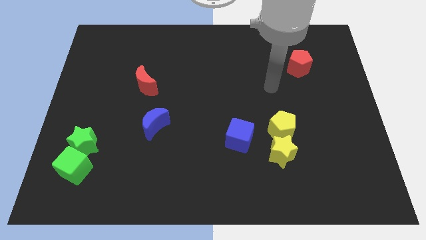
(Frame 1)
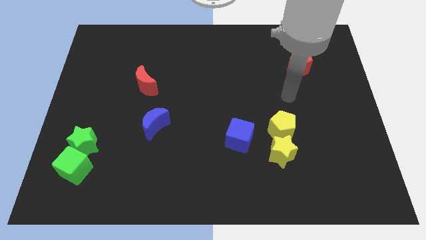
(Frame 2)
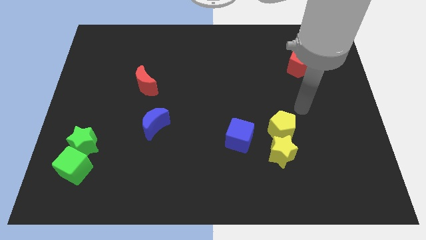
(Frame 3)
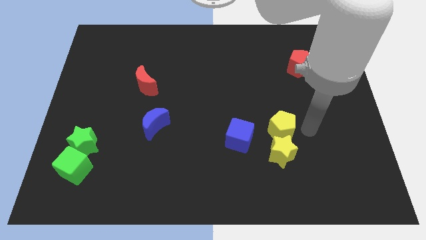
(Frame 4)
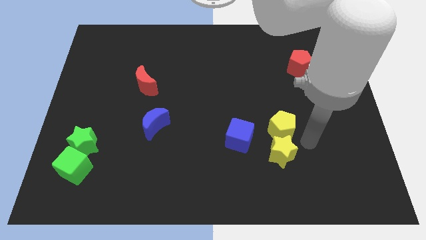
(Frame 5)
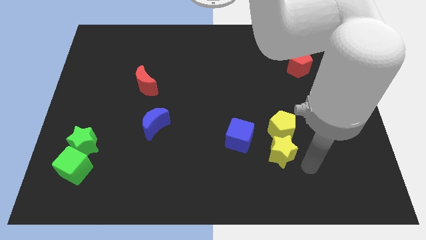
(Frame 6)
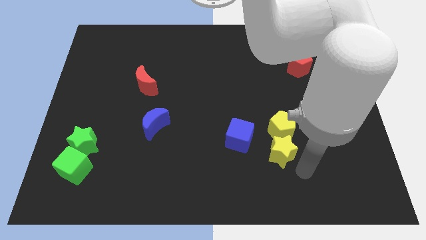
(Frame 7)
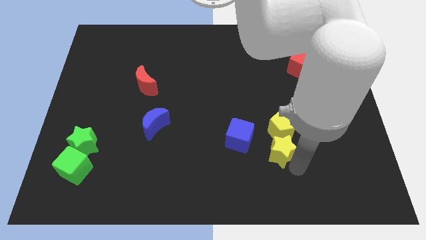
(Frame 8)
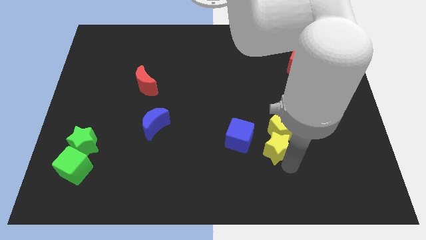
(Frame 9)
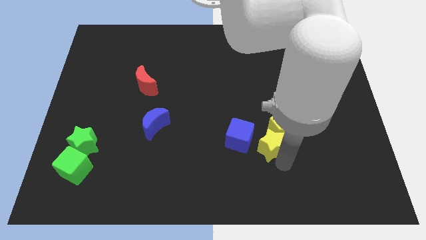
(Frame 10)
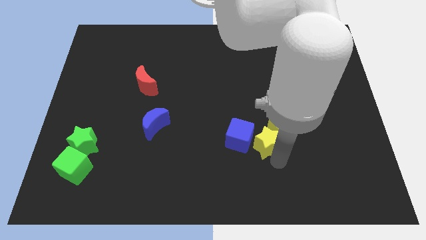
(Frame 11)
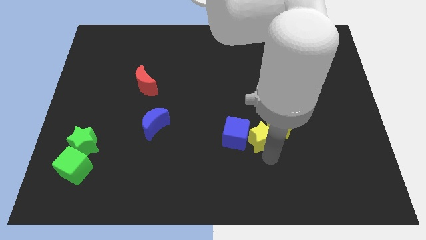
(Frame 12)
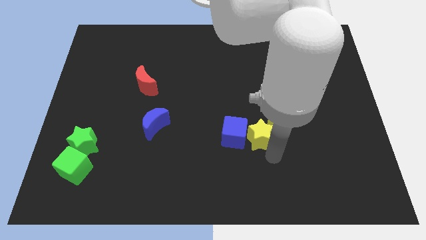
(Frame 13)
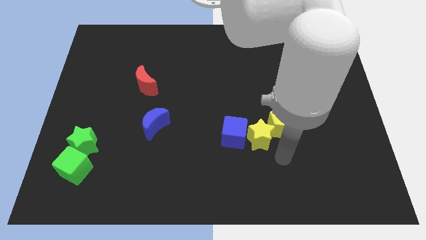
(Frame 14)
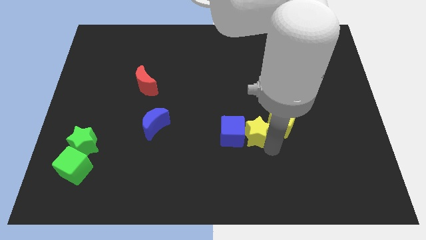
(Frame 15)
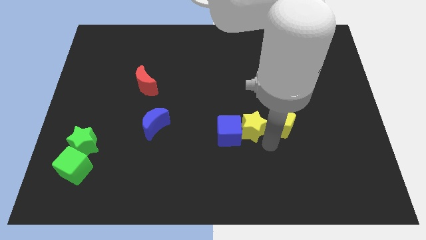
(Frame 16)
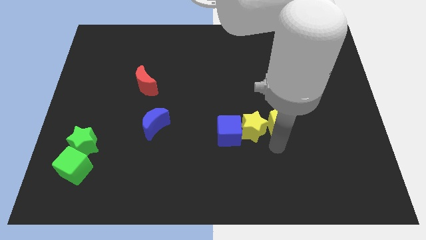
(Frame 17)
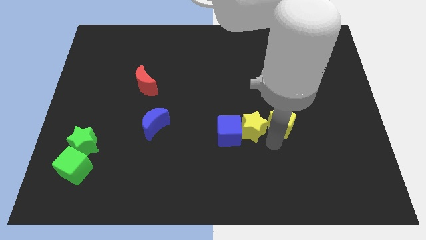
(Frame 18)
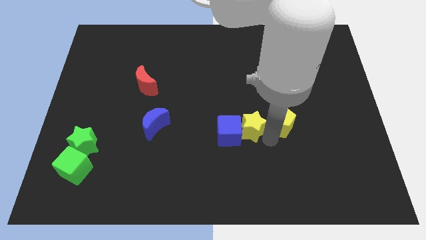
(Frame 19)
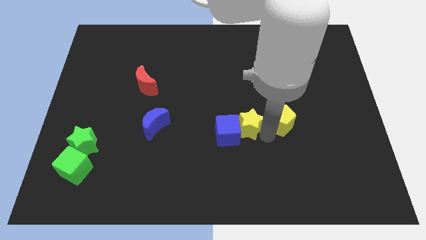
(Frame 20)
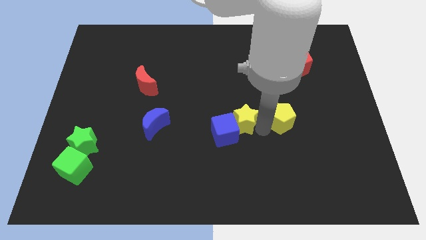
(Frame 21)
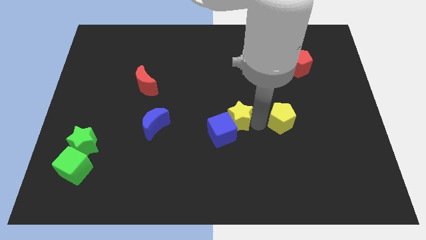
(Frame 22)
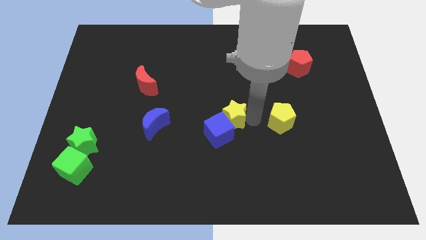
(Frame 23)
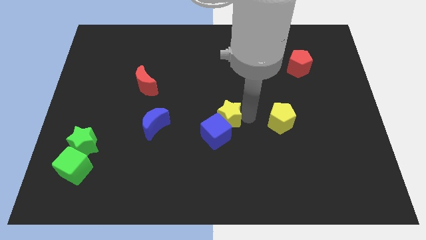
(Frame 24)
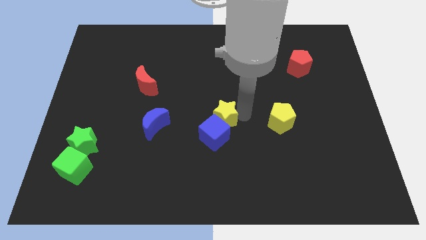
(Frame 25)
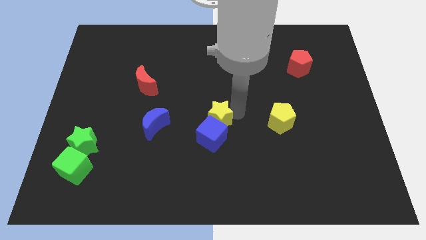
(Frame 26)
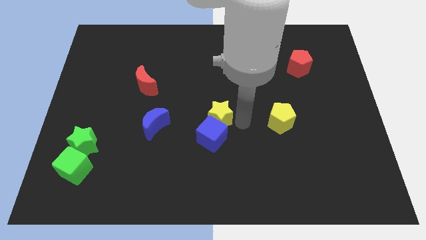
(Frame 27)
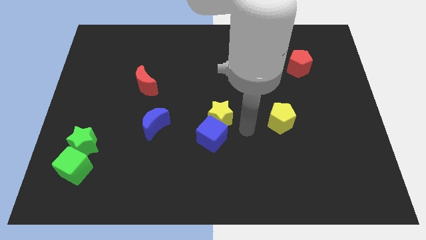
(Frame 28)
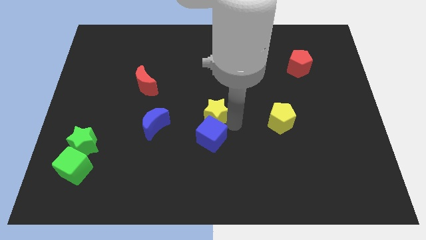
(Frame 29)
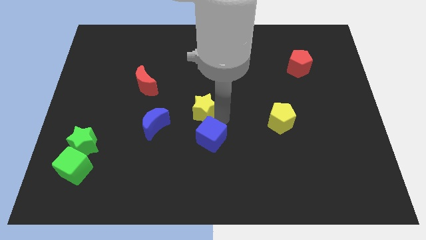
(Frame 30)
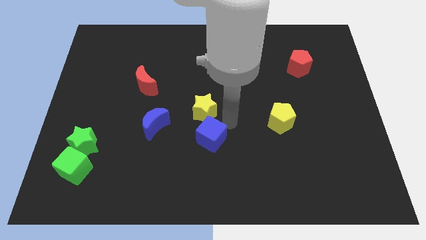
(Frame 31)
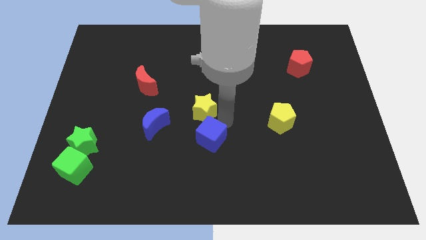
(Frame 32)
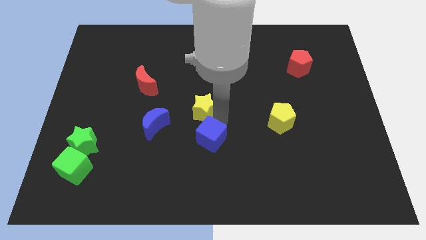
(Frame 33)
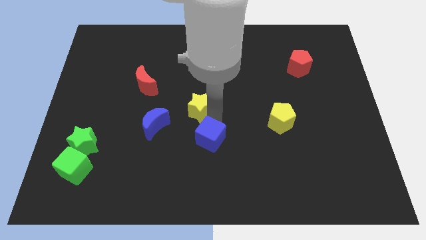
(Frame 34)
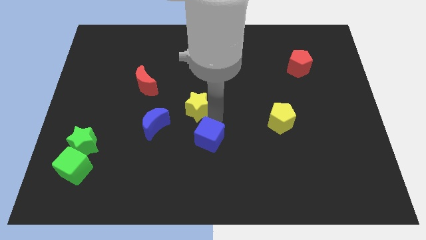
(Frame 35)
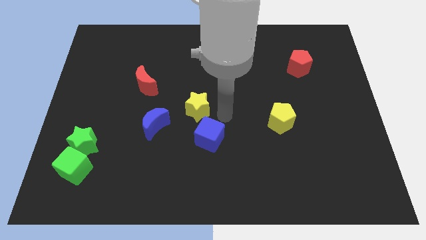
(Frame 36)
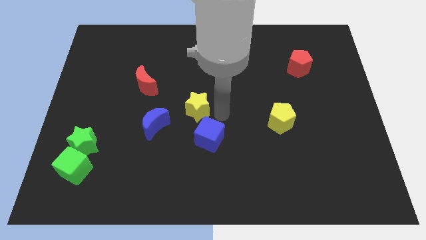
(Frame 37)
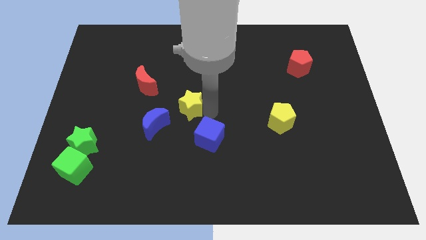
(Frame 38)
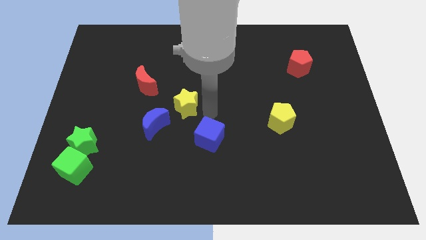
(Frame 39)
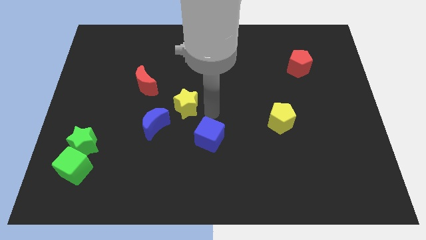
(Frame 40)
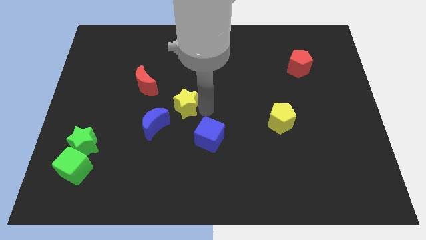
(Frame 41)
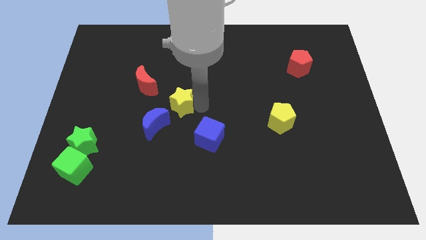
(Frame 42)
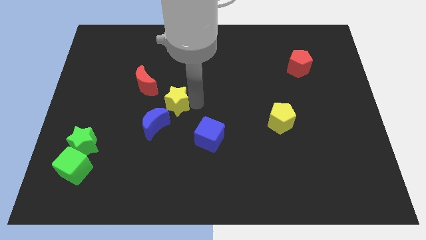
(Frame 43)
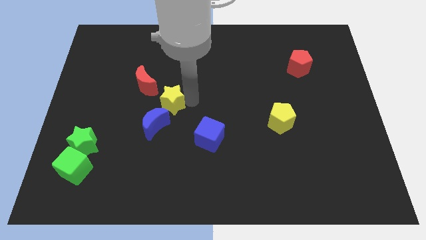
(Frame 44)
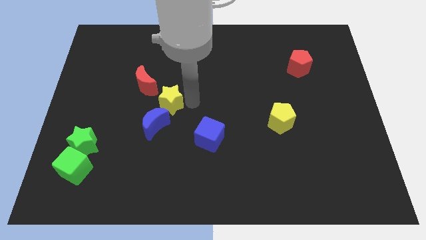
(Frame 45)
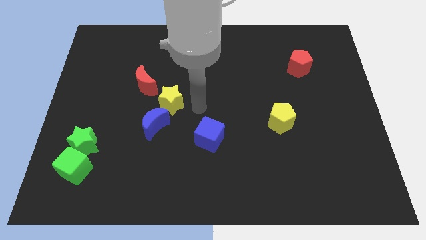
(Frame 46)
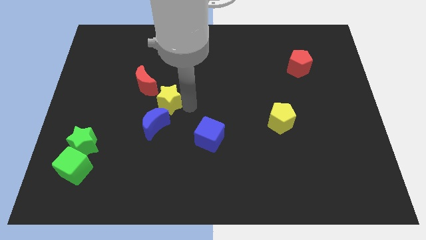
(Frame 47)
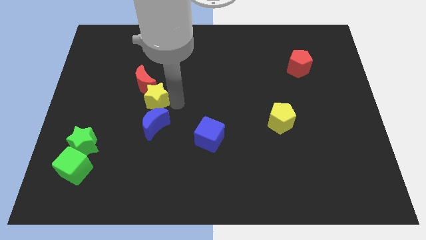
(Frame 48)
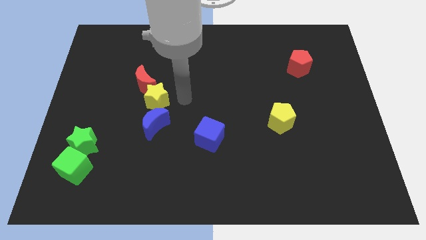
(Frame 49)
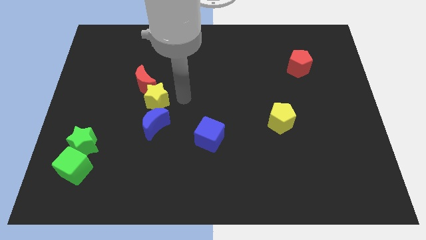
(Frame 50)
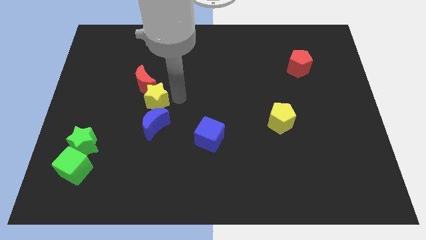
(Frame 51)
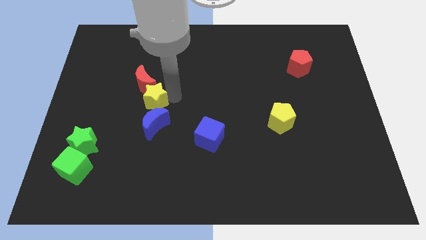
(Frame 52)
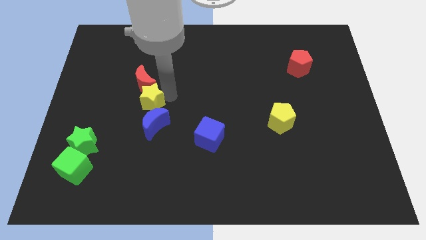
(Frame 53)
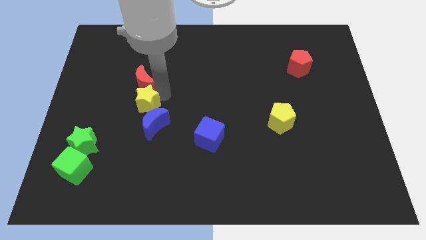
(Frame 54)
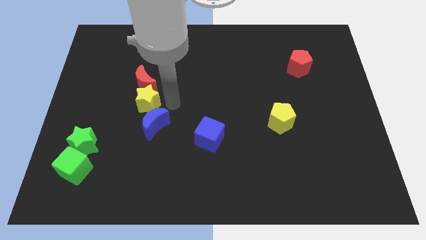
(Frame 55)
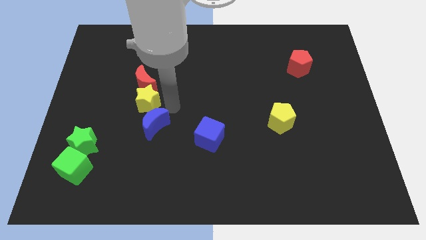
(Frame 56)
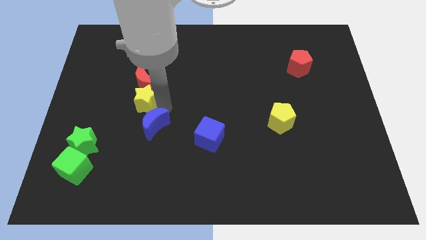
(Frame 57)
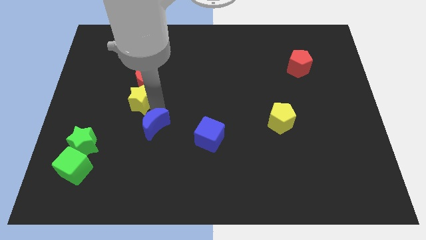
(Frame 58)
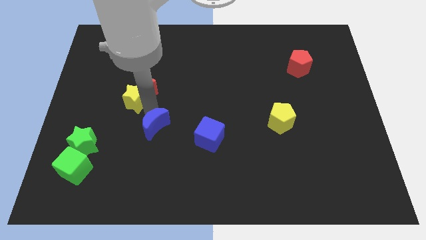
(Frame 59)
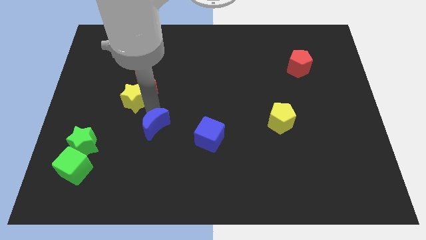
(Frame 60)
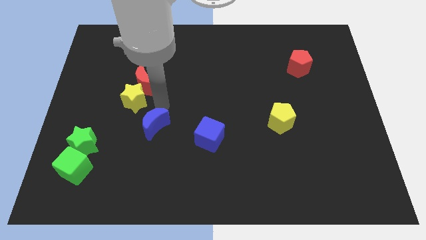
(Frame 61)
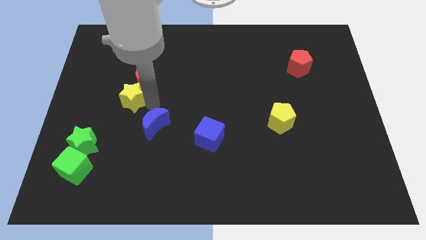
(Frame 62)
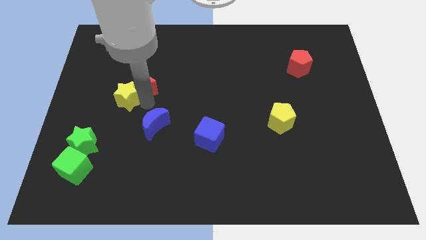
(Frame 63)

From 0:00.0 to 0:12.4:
move the yellow star just left of the red moon
